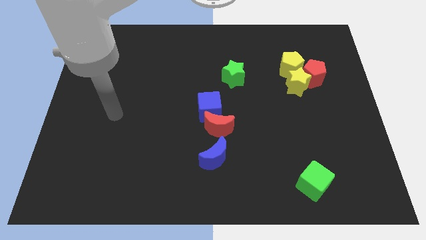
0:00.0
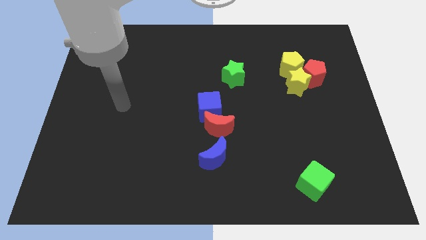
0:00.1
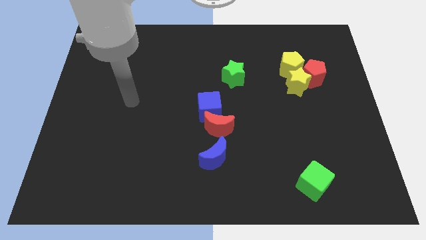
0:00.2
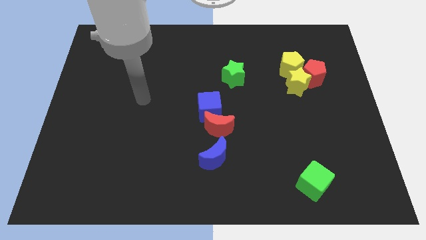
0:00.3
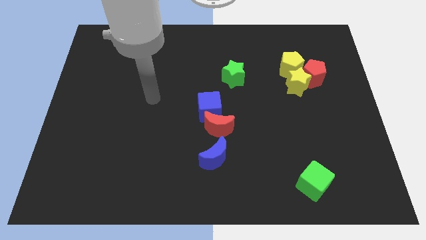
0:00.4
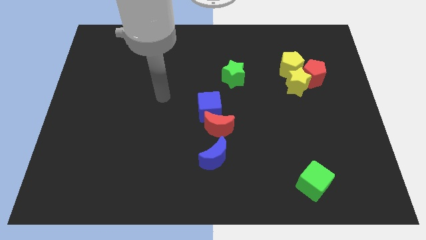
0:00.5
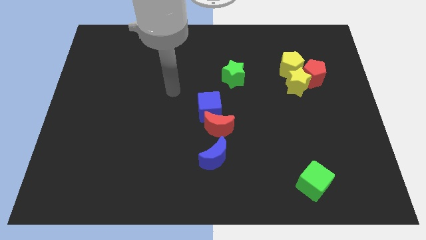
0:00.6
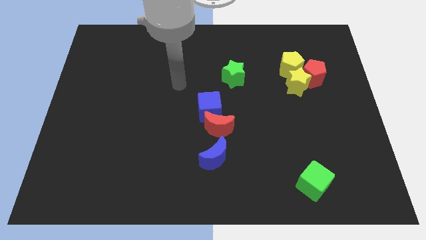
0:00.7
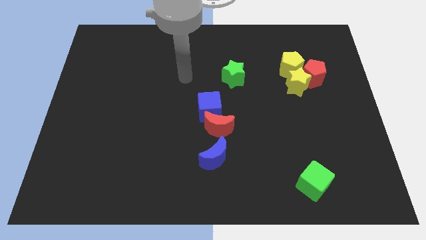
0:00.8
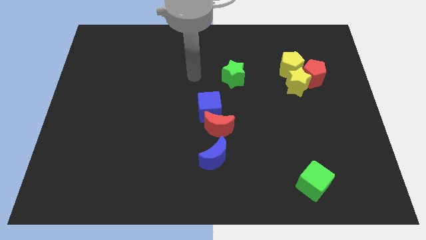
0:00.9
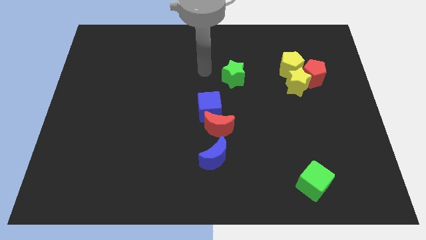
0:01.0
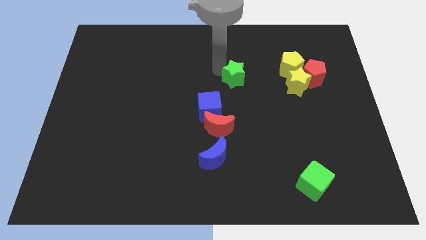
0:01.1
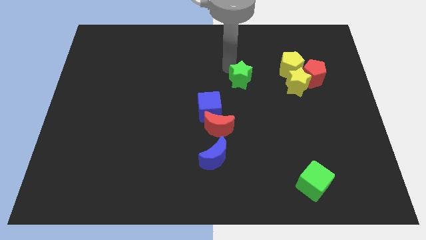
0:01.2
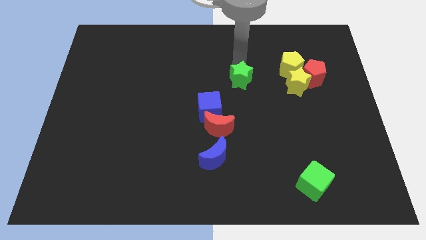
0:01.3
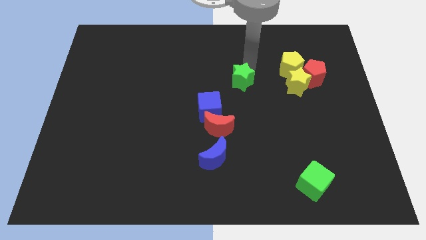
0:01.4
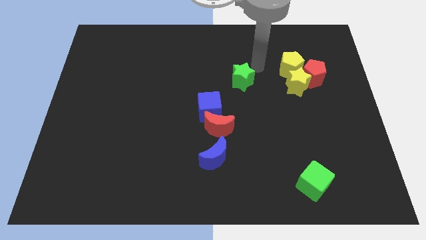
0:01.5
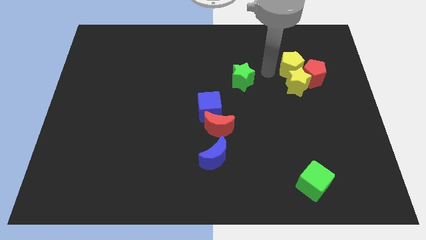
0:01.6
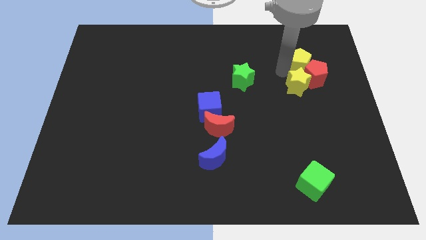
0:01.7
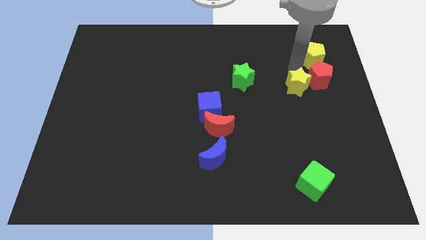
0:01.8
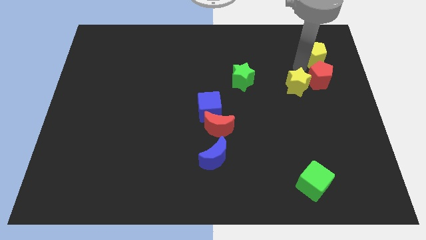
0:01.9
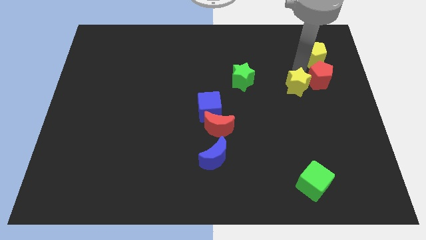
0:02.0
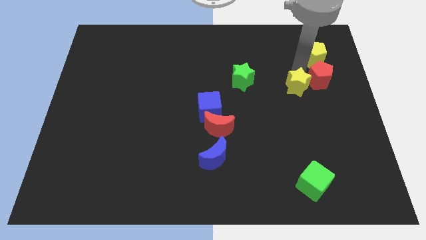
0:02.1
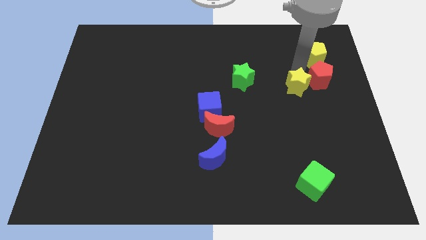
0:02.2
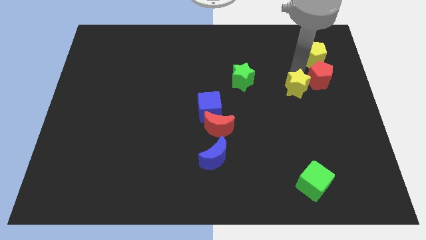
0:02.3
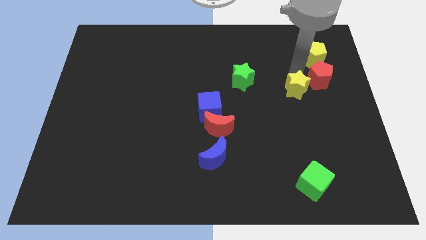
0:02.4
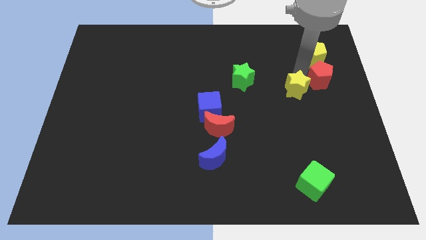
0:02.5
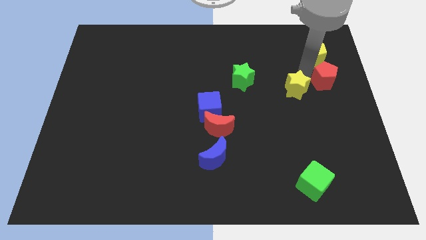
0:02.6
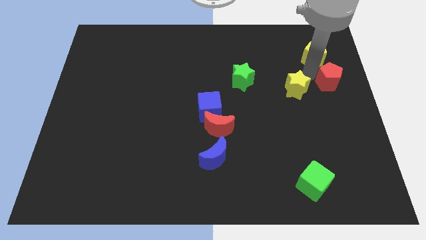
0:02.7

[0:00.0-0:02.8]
pull the yellow star apart from the red pentagon and yellow pentagon

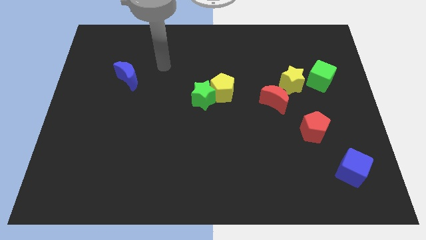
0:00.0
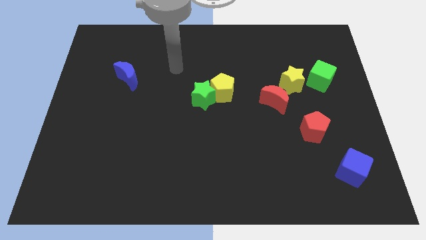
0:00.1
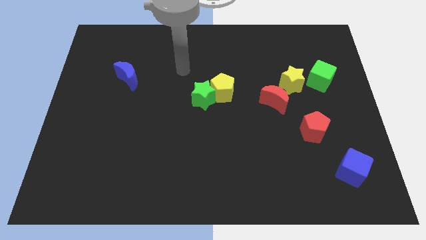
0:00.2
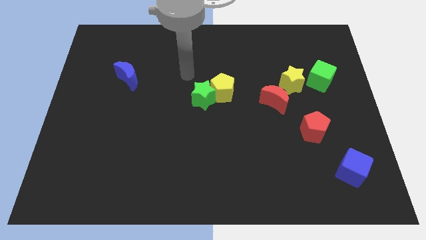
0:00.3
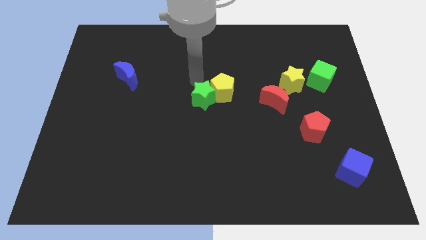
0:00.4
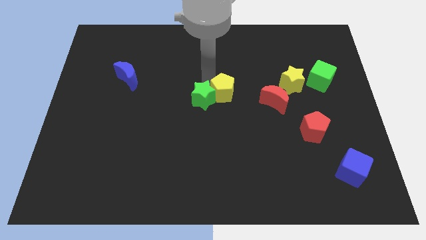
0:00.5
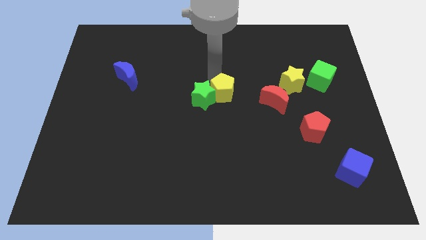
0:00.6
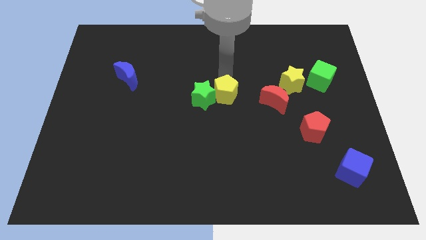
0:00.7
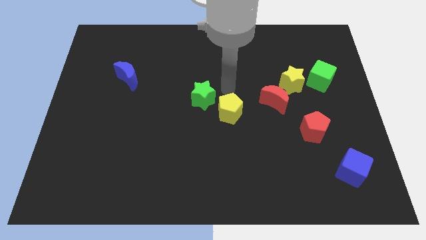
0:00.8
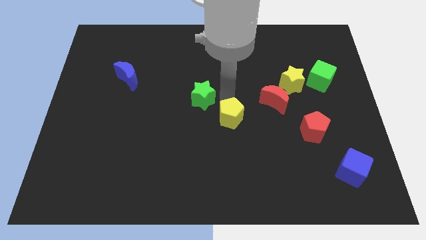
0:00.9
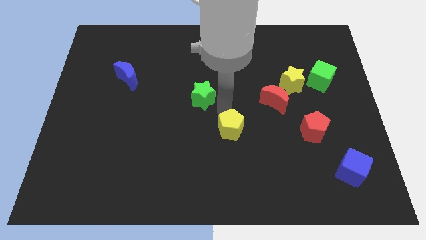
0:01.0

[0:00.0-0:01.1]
pull the green star apart from the yellow pentagon

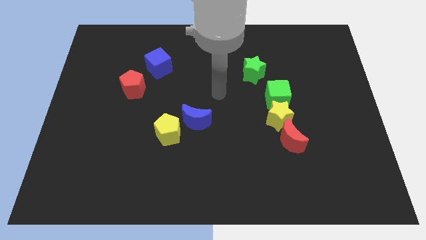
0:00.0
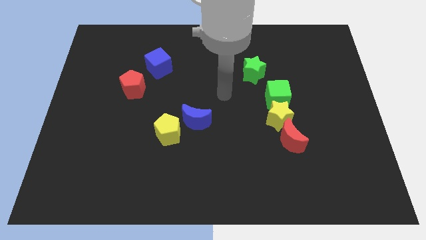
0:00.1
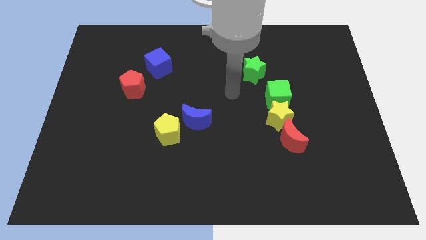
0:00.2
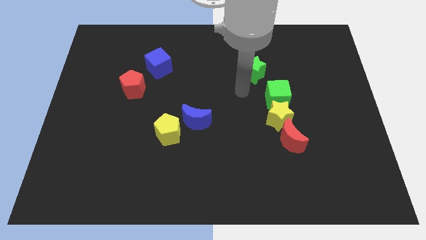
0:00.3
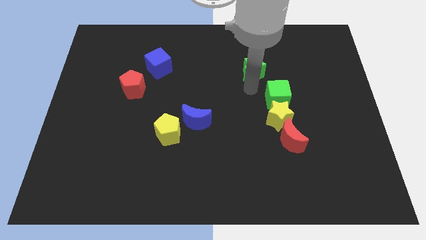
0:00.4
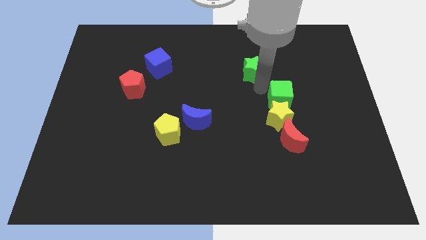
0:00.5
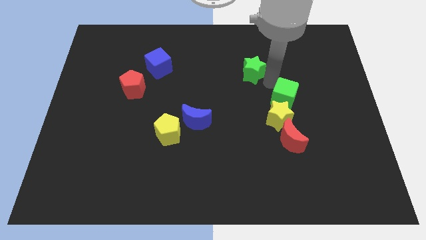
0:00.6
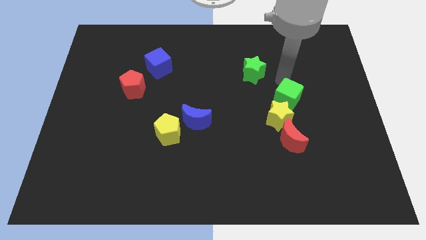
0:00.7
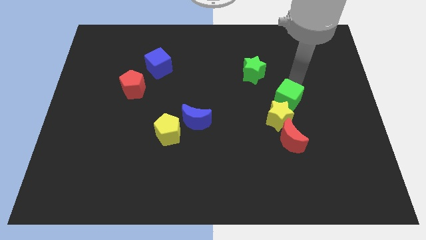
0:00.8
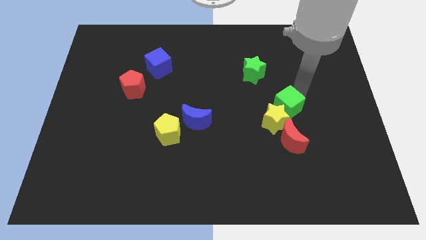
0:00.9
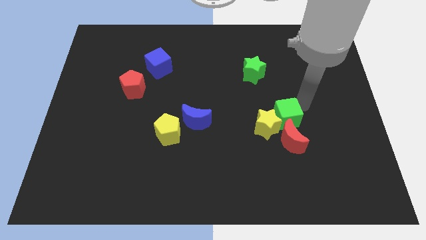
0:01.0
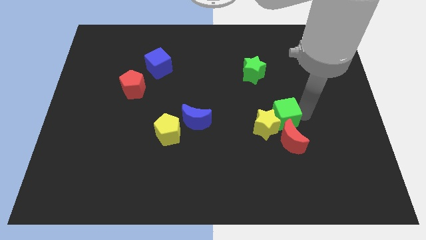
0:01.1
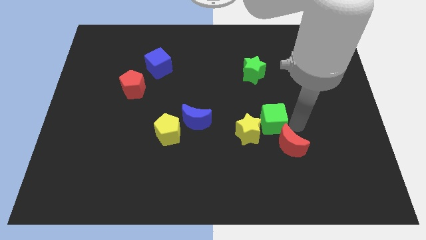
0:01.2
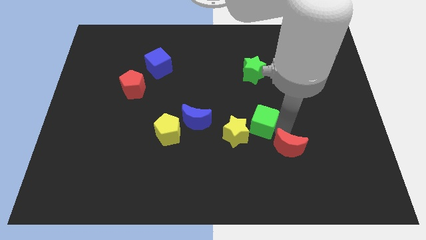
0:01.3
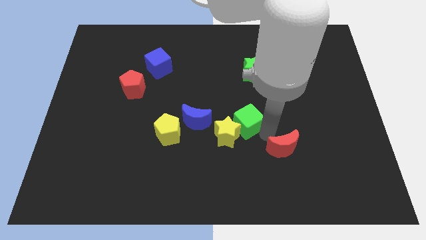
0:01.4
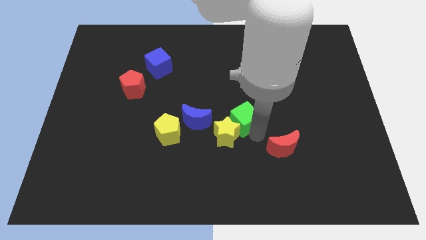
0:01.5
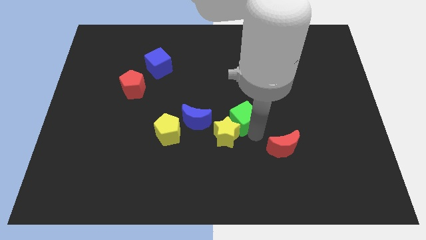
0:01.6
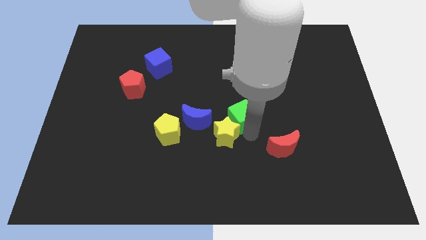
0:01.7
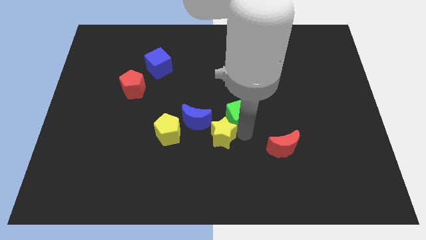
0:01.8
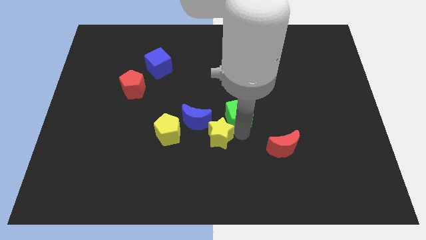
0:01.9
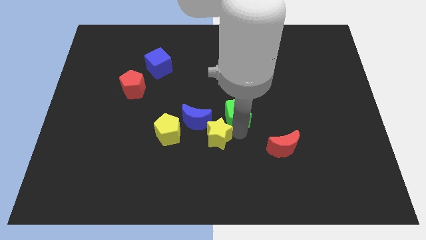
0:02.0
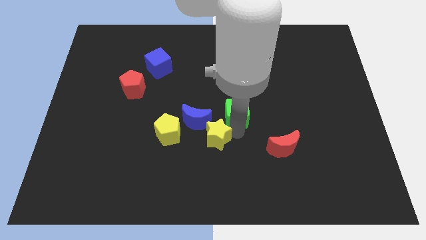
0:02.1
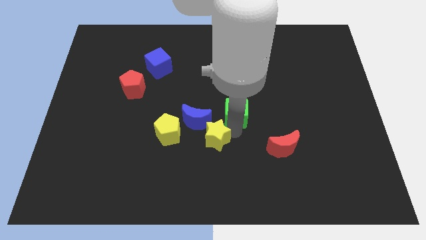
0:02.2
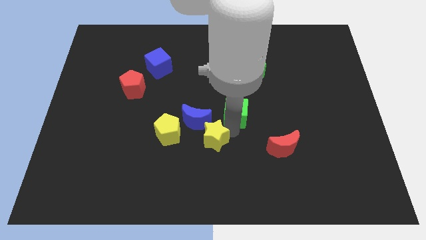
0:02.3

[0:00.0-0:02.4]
pull the yellow star apart from the green cube and red moon

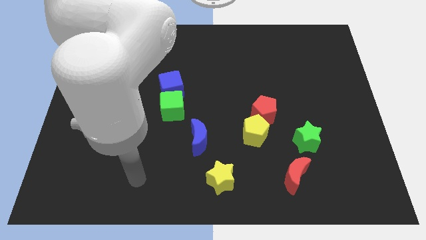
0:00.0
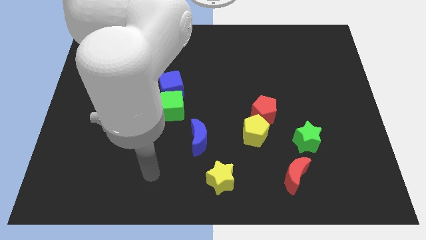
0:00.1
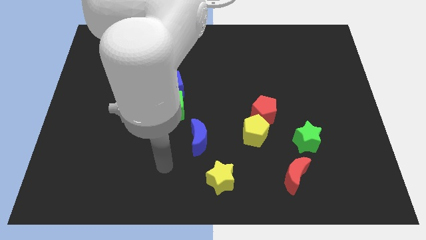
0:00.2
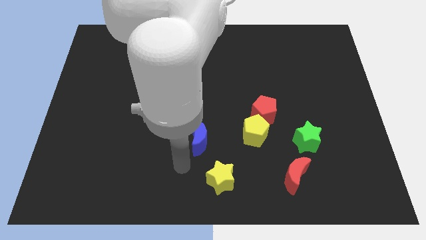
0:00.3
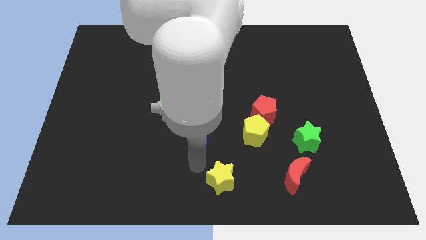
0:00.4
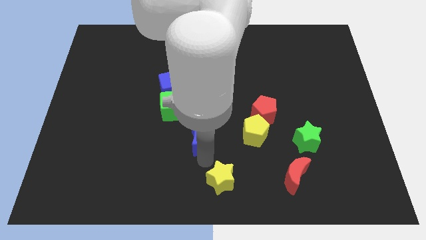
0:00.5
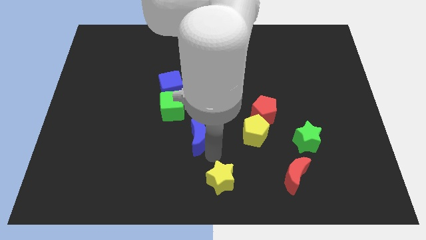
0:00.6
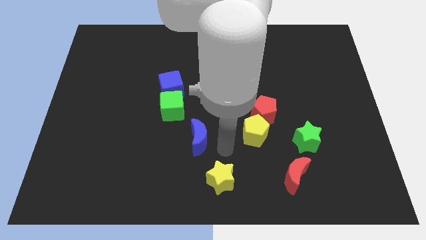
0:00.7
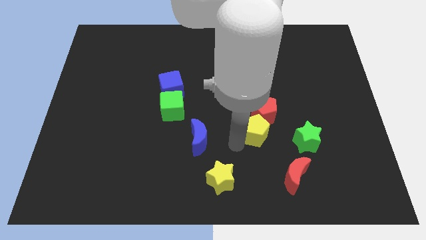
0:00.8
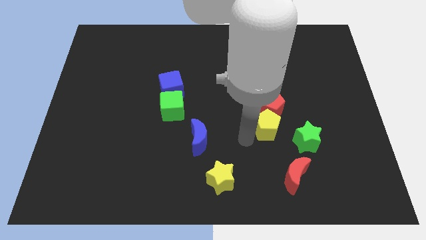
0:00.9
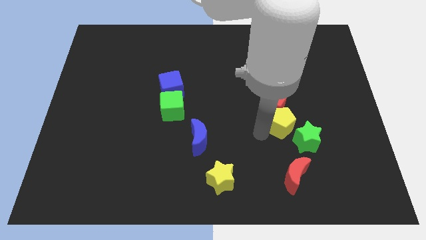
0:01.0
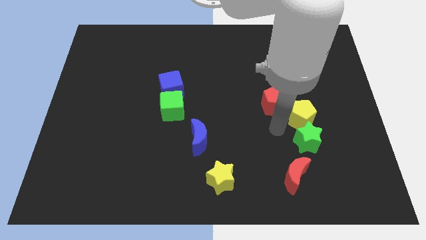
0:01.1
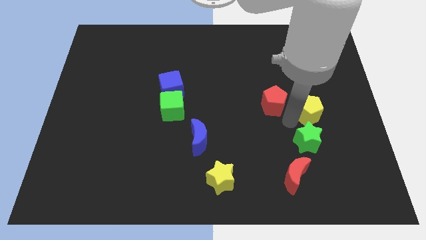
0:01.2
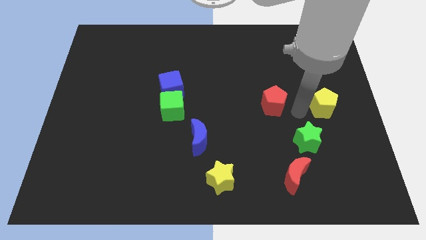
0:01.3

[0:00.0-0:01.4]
pull the red pentagon apart from the yellow pentagon

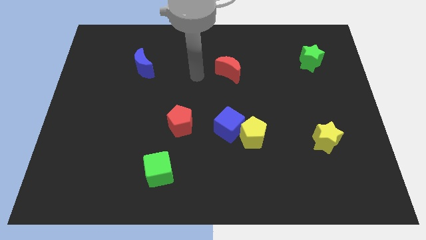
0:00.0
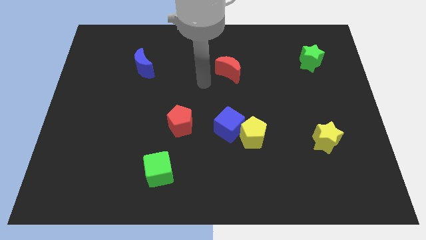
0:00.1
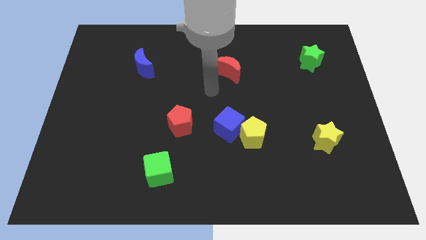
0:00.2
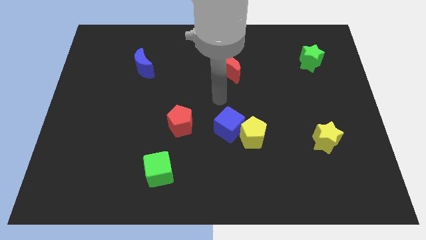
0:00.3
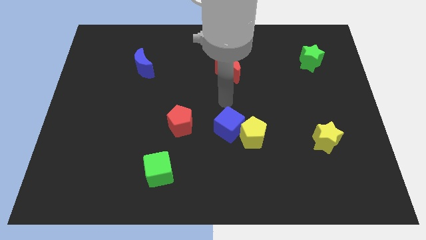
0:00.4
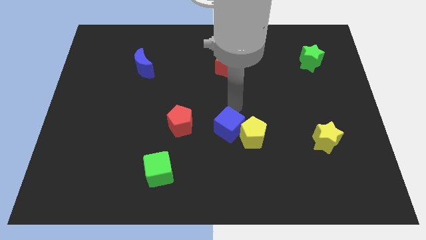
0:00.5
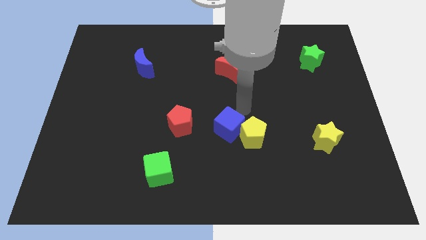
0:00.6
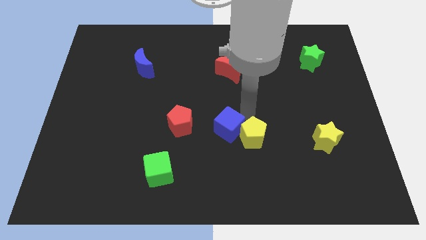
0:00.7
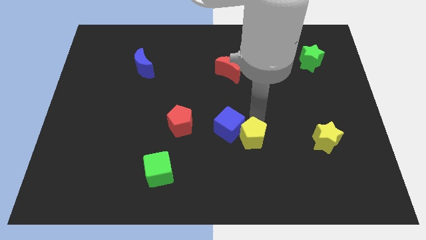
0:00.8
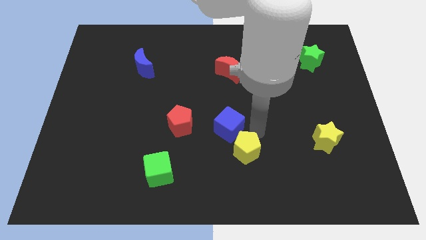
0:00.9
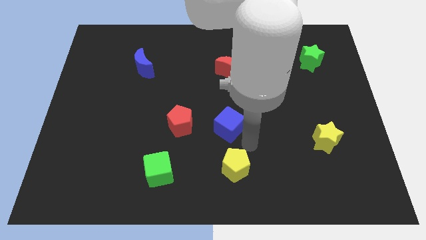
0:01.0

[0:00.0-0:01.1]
pull the blue cube apart from the yellow pentagon

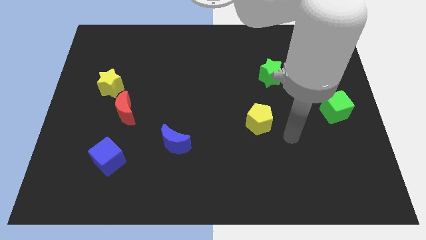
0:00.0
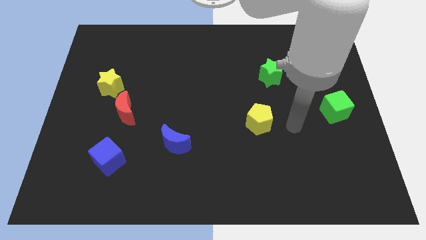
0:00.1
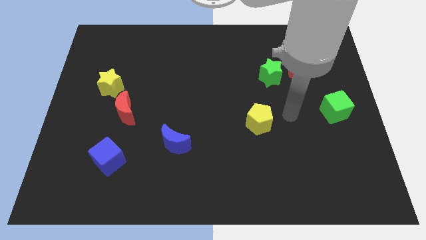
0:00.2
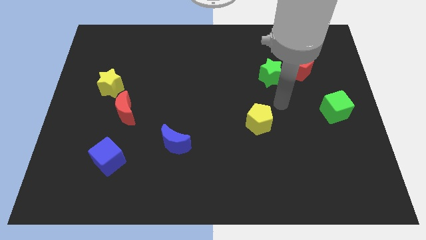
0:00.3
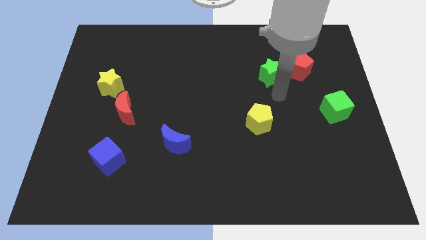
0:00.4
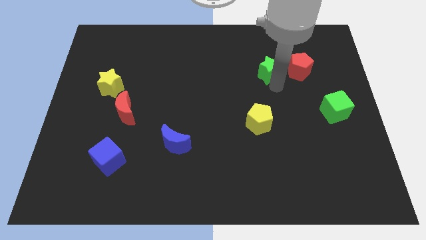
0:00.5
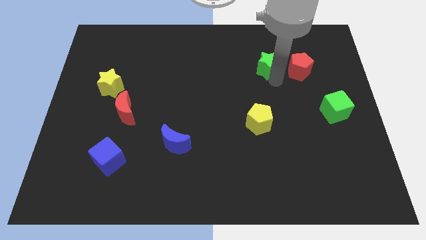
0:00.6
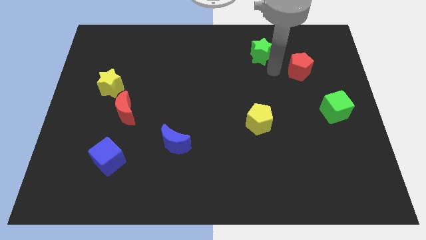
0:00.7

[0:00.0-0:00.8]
separate the red pentagon from the green star
